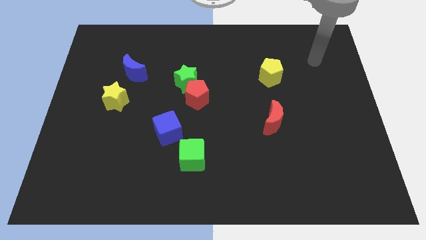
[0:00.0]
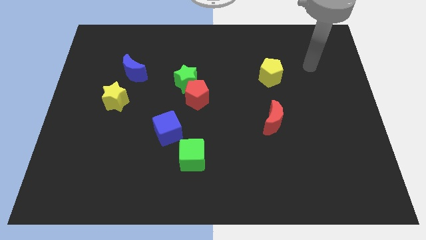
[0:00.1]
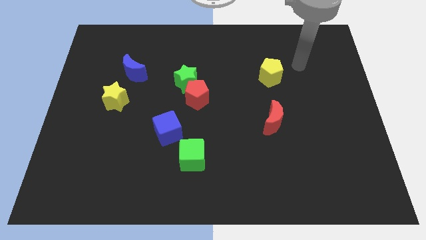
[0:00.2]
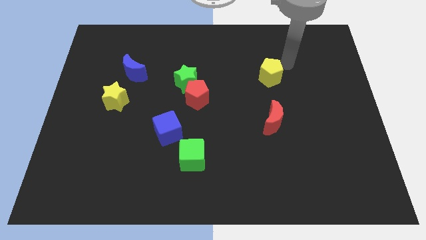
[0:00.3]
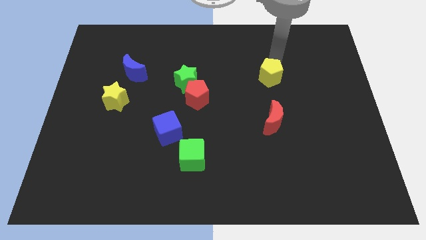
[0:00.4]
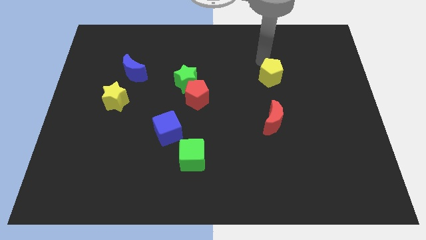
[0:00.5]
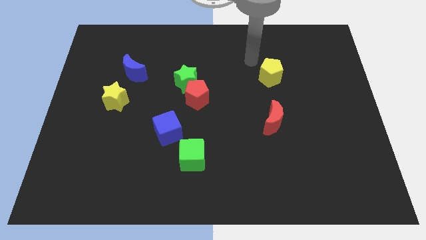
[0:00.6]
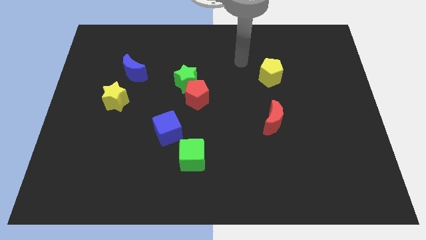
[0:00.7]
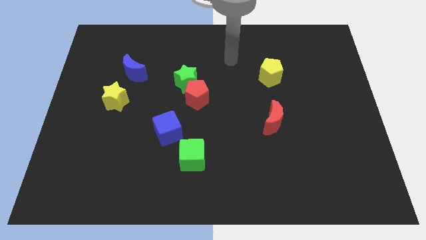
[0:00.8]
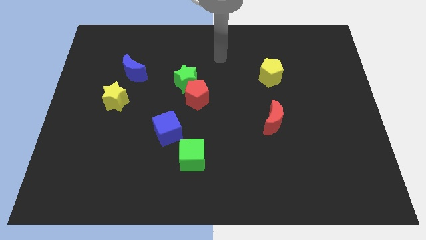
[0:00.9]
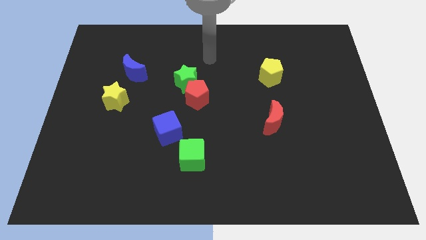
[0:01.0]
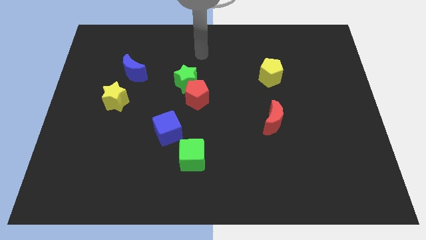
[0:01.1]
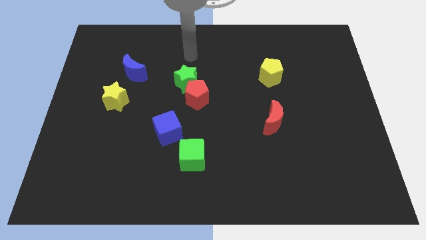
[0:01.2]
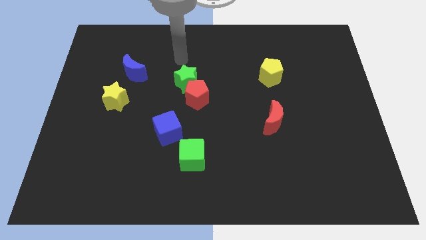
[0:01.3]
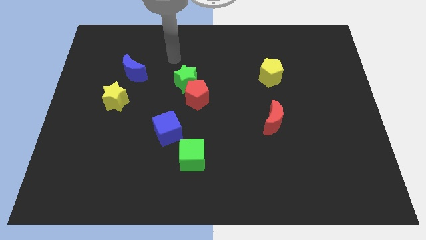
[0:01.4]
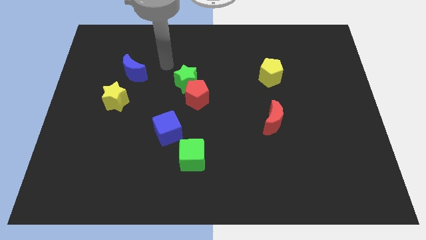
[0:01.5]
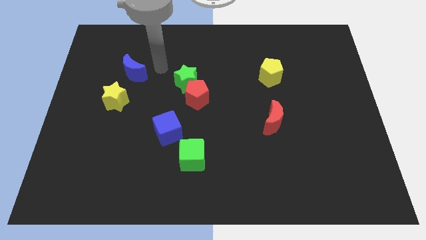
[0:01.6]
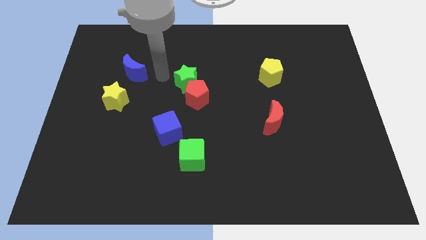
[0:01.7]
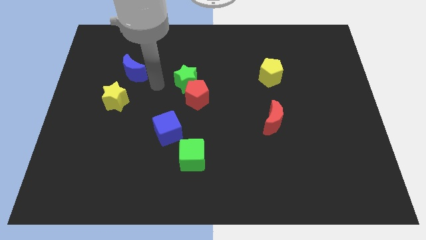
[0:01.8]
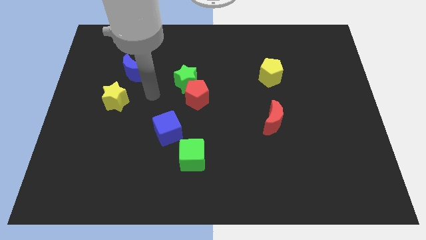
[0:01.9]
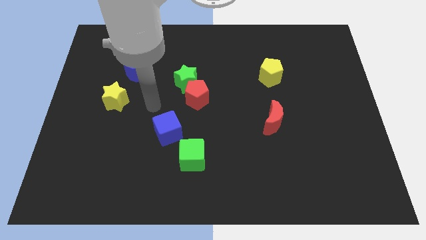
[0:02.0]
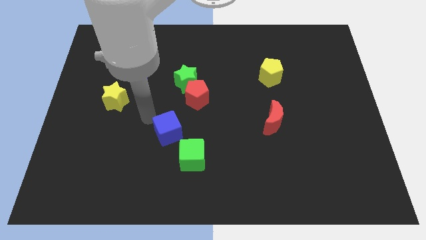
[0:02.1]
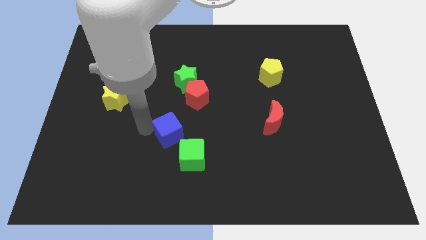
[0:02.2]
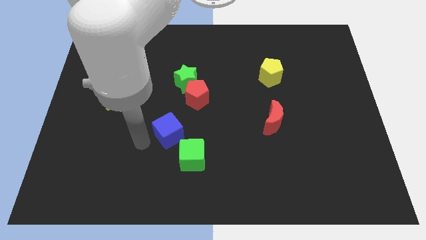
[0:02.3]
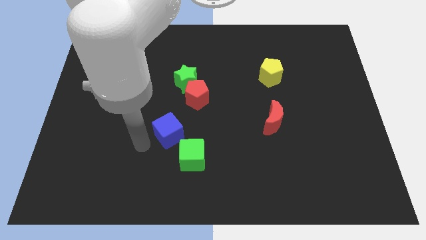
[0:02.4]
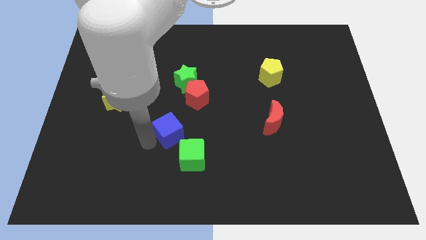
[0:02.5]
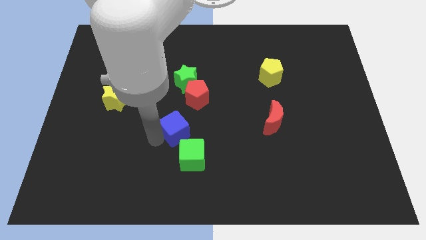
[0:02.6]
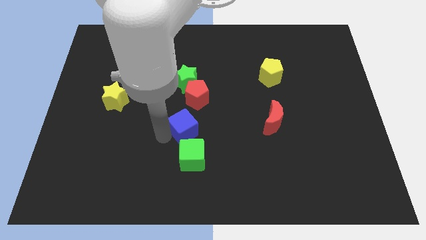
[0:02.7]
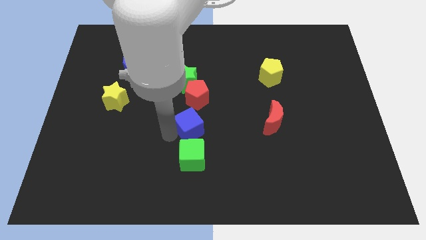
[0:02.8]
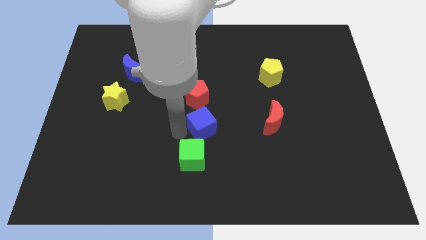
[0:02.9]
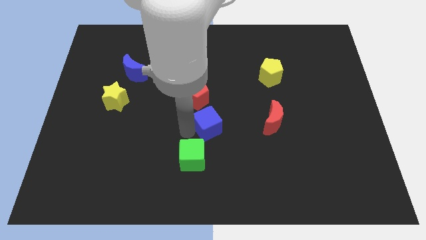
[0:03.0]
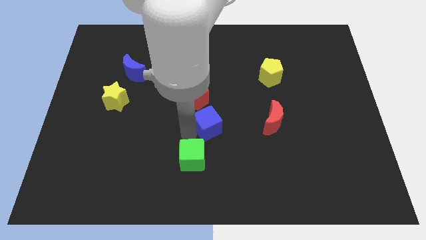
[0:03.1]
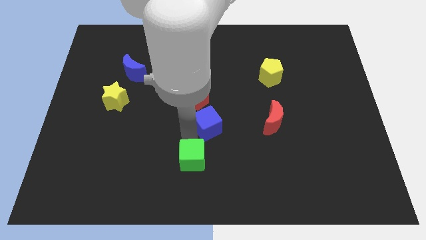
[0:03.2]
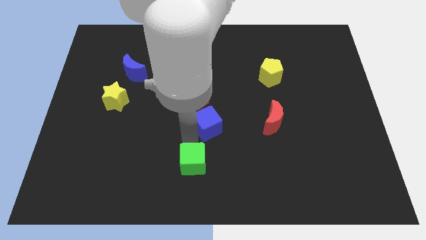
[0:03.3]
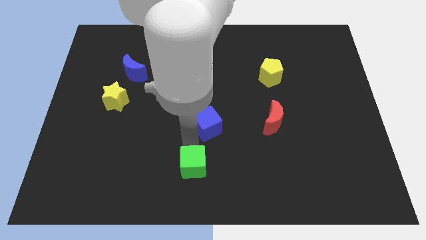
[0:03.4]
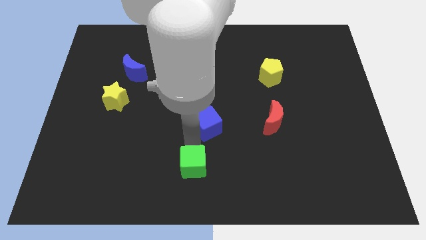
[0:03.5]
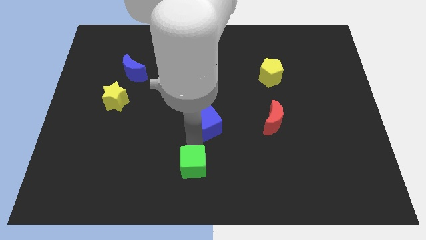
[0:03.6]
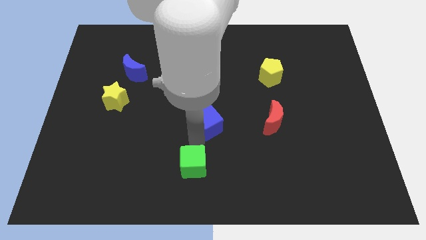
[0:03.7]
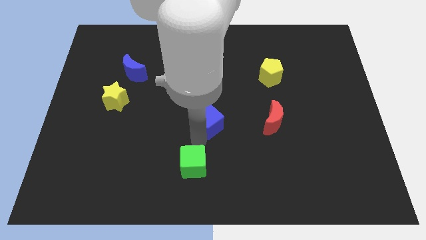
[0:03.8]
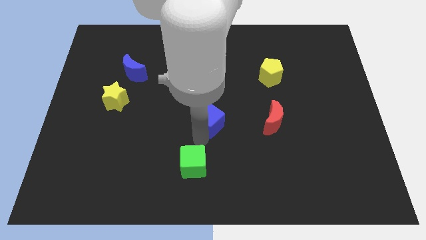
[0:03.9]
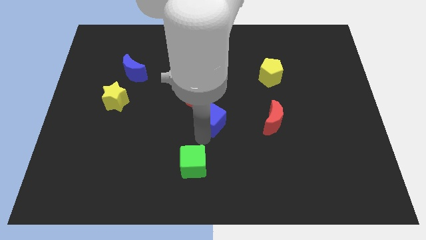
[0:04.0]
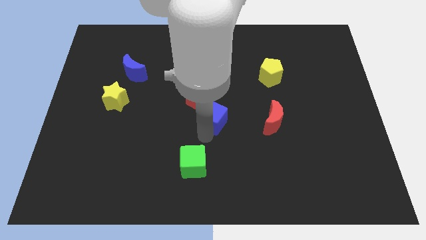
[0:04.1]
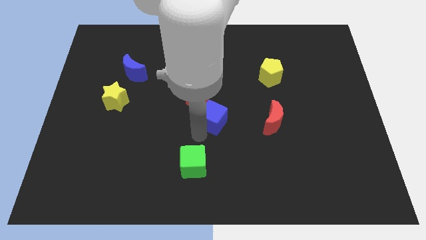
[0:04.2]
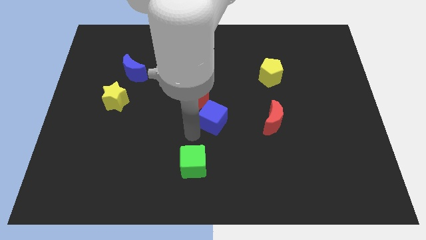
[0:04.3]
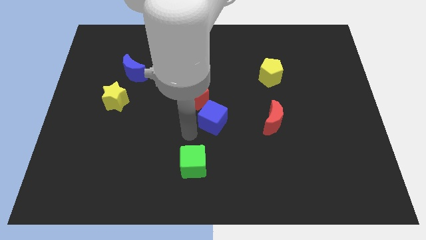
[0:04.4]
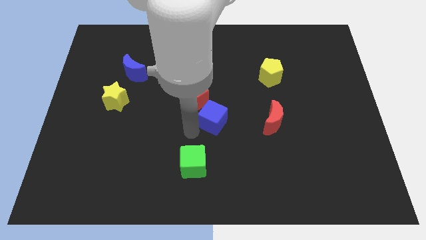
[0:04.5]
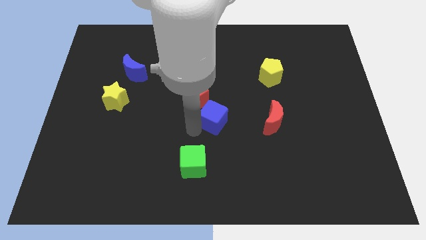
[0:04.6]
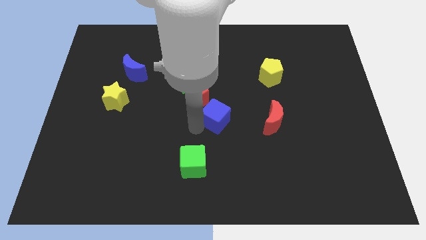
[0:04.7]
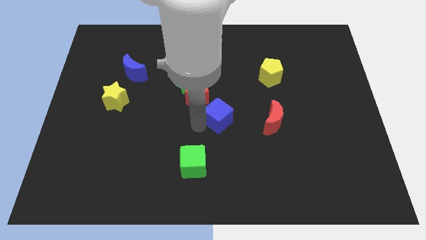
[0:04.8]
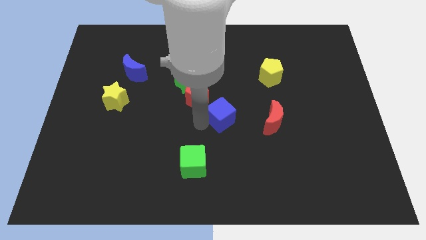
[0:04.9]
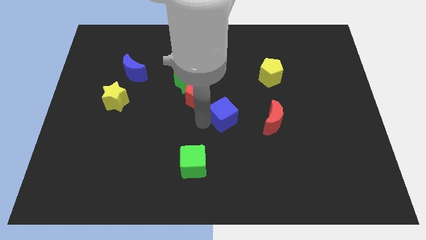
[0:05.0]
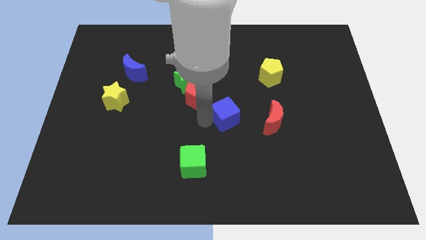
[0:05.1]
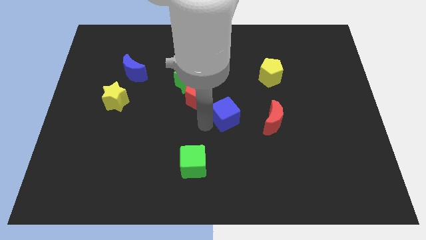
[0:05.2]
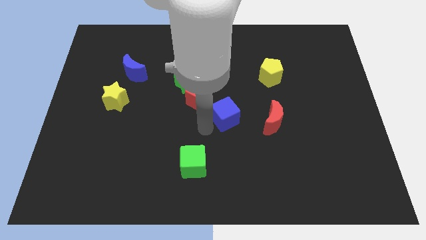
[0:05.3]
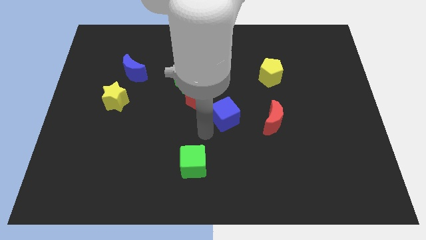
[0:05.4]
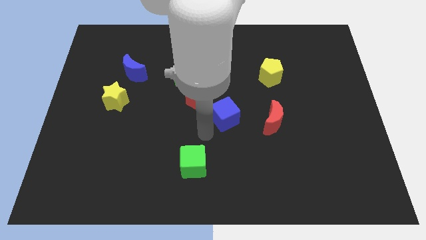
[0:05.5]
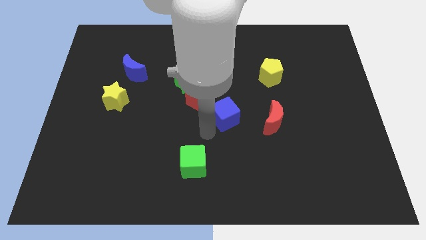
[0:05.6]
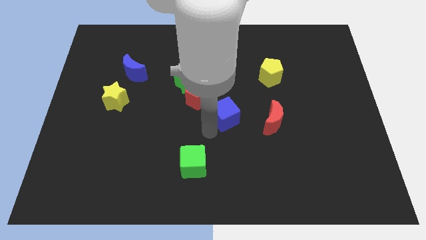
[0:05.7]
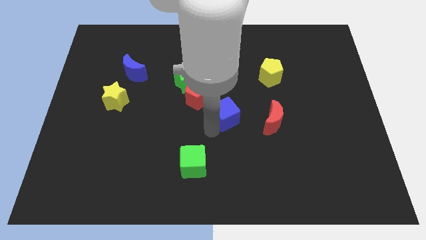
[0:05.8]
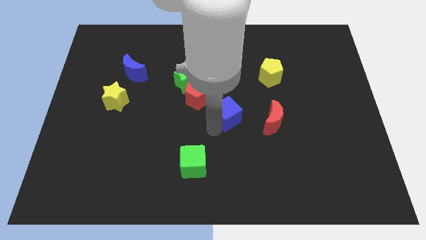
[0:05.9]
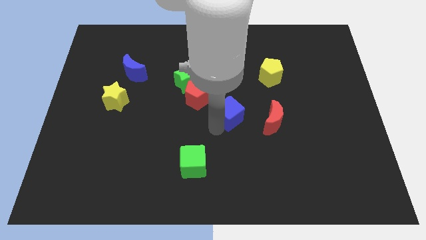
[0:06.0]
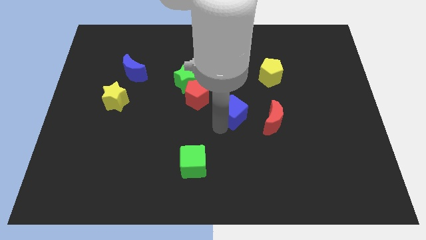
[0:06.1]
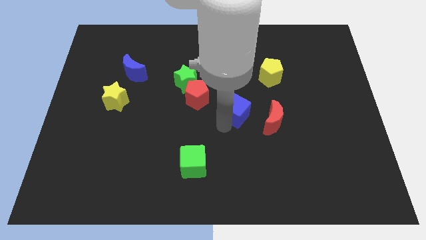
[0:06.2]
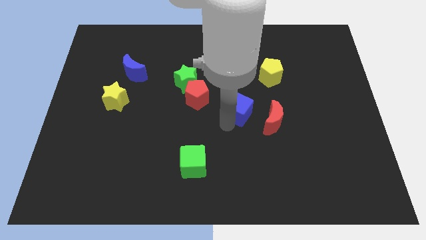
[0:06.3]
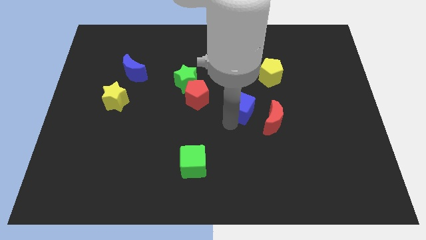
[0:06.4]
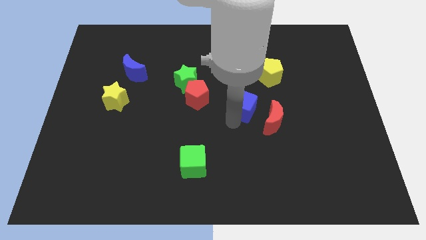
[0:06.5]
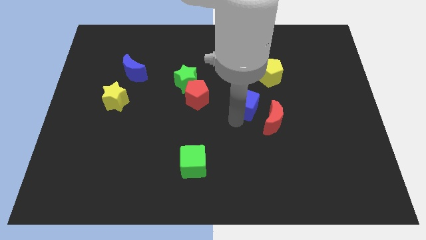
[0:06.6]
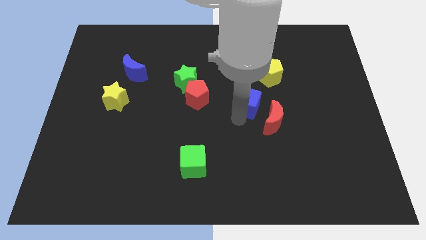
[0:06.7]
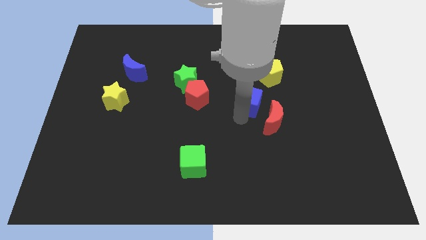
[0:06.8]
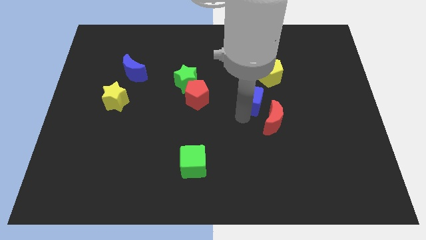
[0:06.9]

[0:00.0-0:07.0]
move the blue cube to the top side of the red moon
